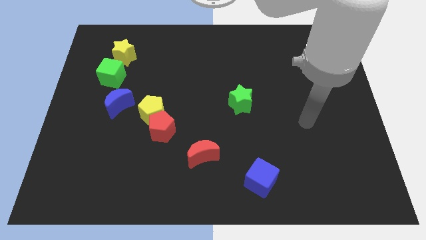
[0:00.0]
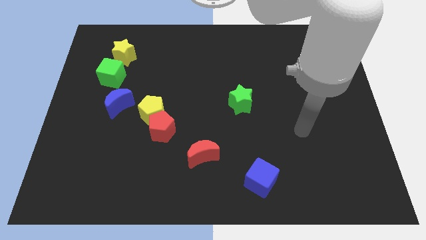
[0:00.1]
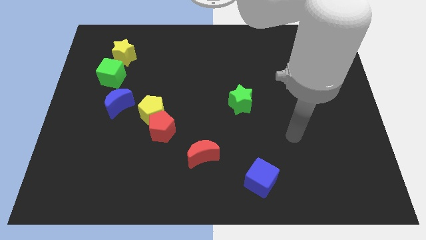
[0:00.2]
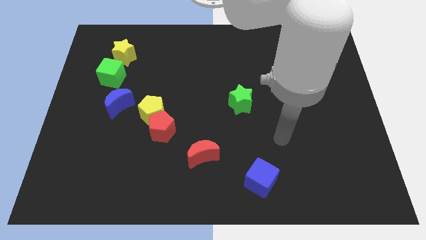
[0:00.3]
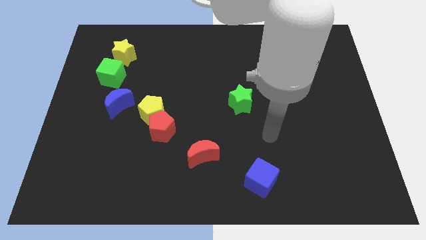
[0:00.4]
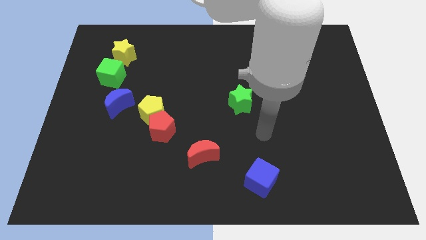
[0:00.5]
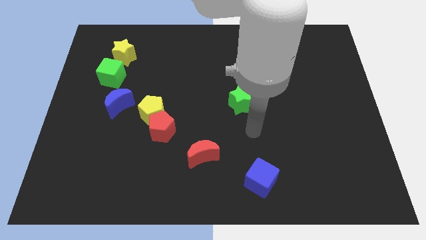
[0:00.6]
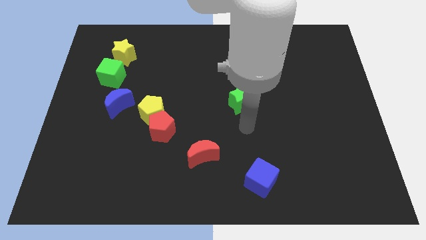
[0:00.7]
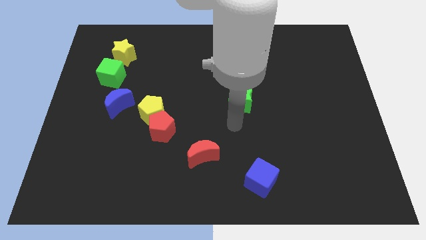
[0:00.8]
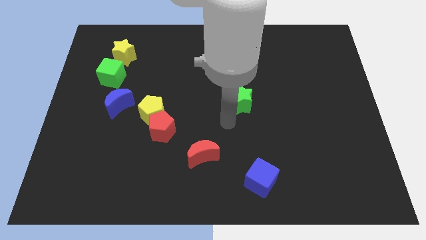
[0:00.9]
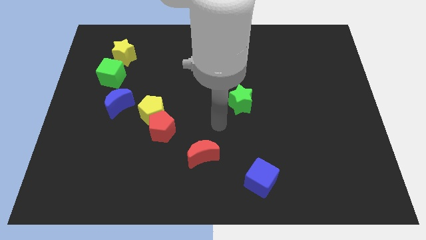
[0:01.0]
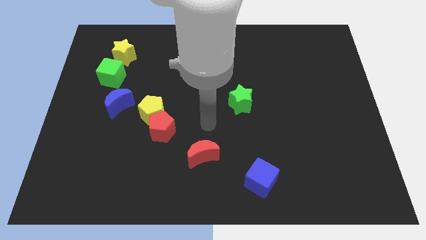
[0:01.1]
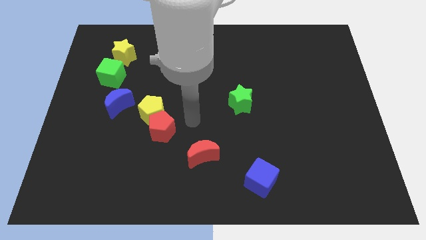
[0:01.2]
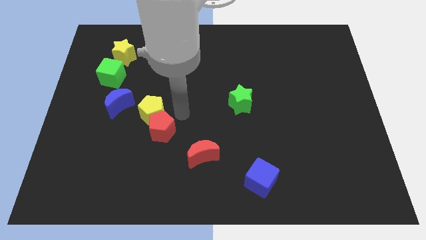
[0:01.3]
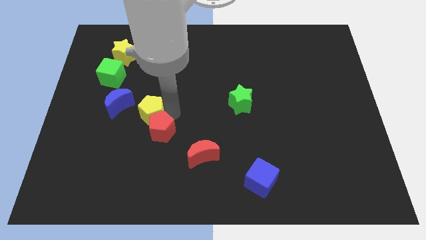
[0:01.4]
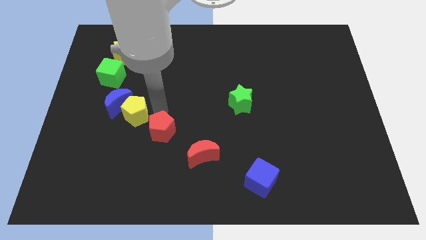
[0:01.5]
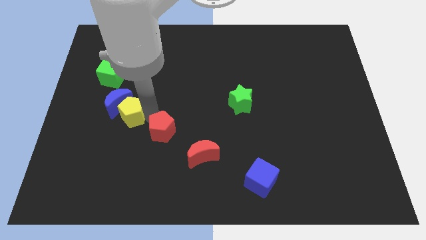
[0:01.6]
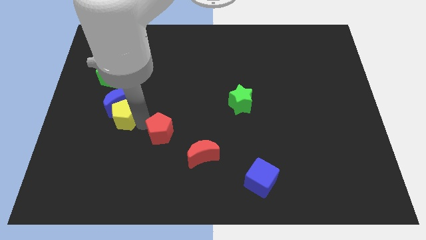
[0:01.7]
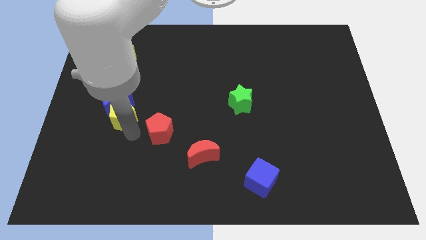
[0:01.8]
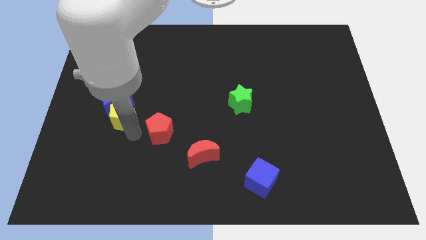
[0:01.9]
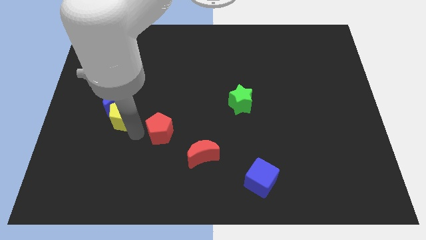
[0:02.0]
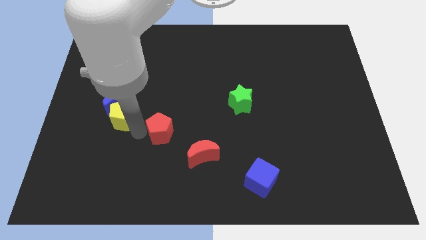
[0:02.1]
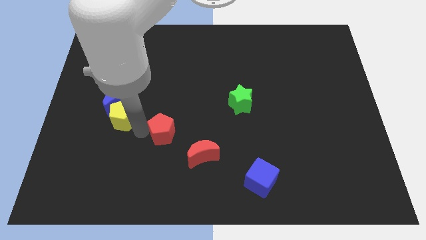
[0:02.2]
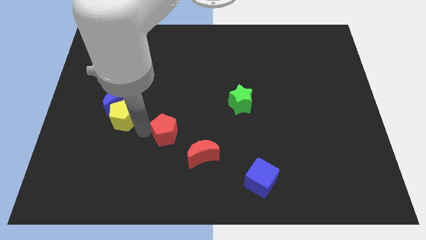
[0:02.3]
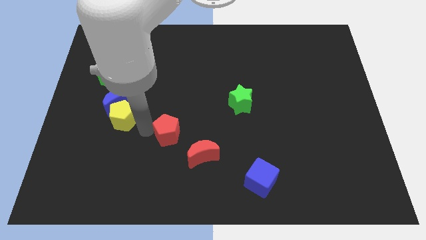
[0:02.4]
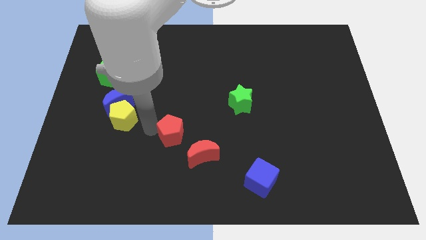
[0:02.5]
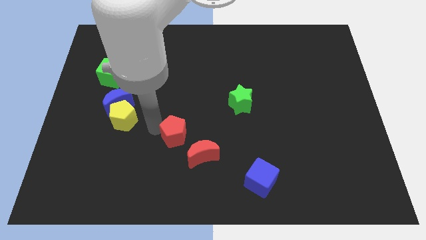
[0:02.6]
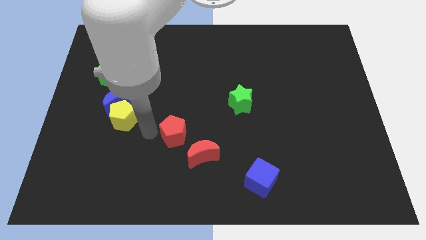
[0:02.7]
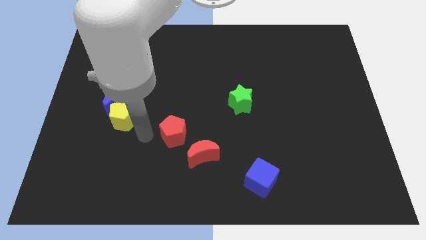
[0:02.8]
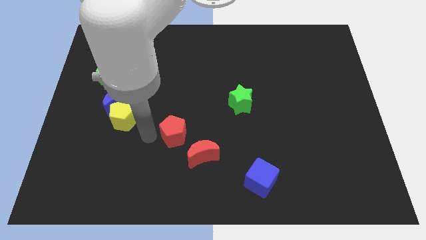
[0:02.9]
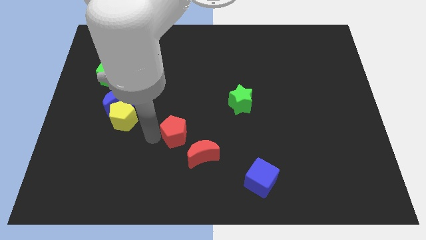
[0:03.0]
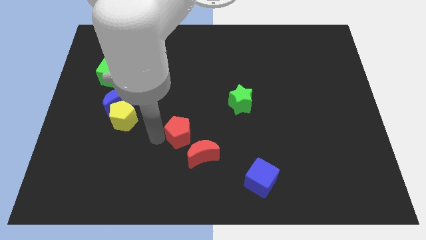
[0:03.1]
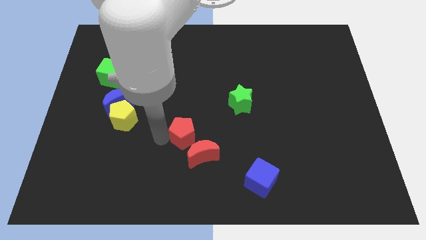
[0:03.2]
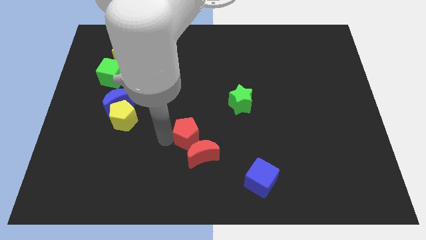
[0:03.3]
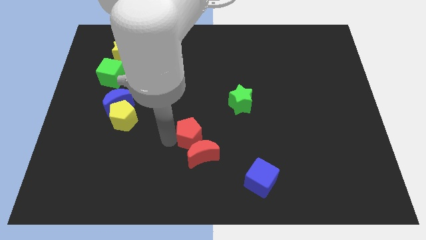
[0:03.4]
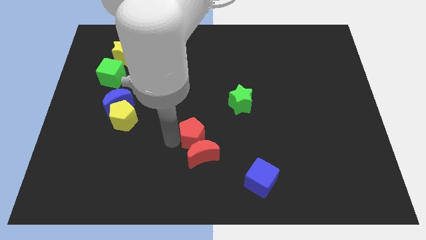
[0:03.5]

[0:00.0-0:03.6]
move the red pentagon right a little

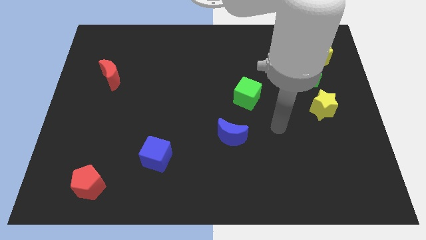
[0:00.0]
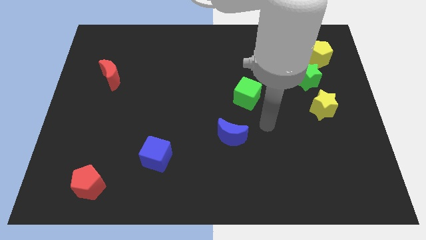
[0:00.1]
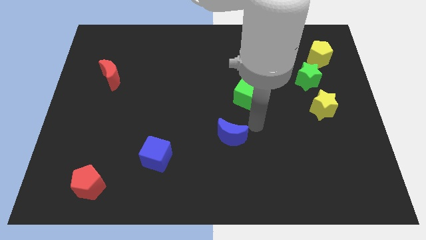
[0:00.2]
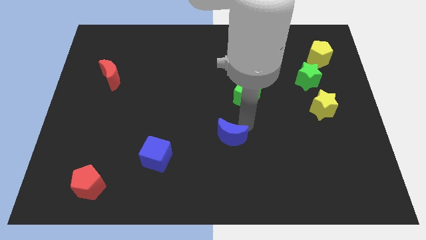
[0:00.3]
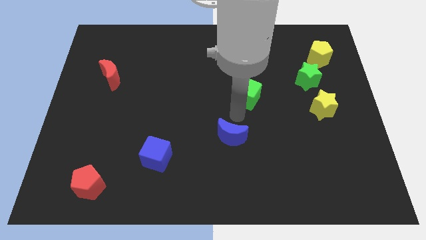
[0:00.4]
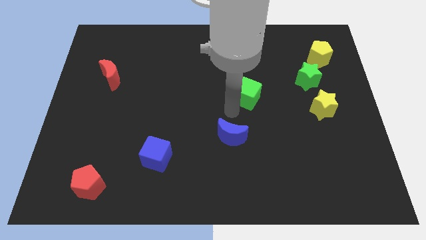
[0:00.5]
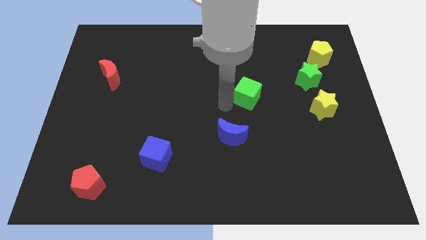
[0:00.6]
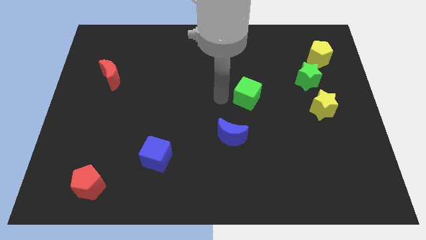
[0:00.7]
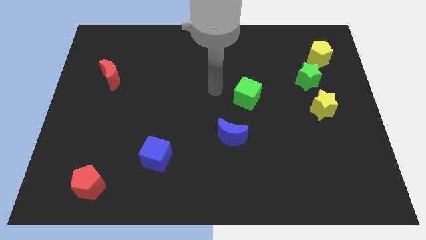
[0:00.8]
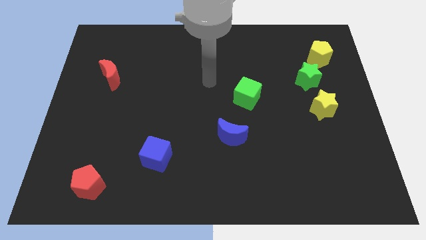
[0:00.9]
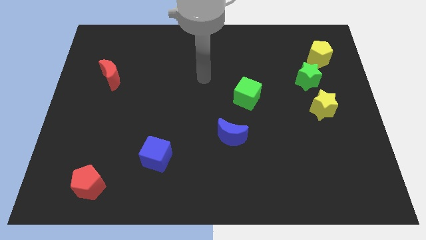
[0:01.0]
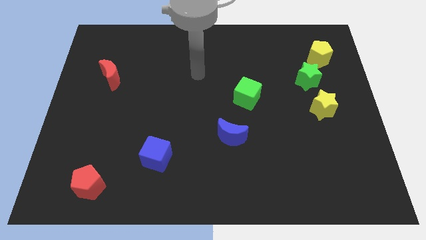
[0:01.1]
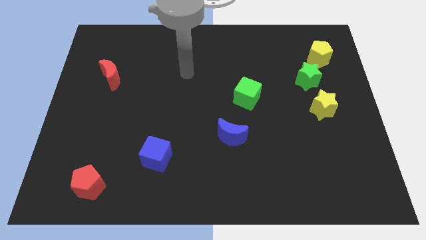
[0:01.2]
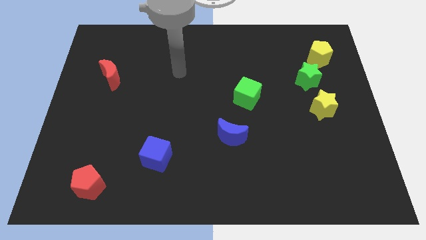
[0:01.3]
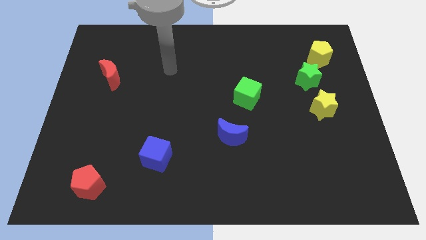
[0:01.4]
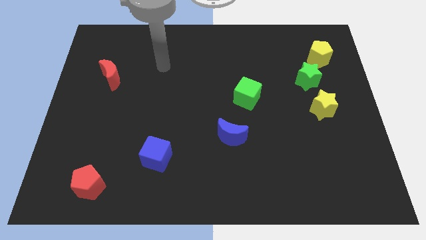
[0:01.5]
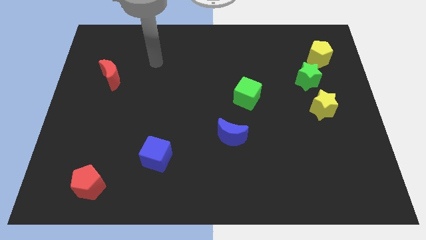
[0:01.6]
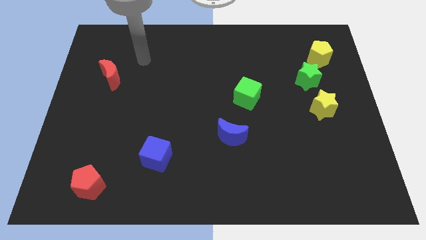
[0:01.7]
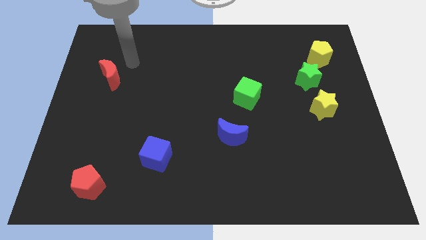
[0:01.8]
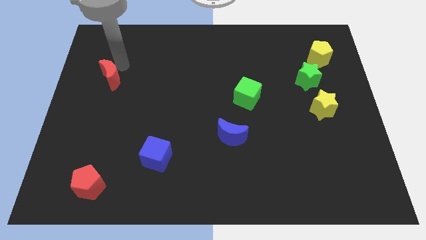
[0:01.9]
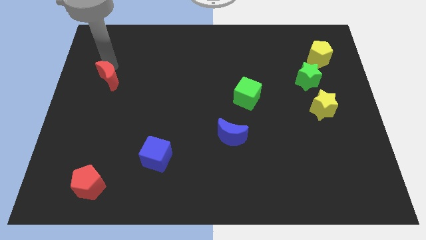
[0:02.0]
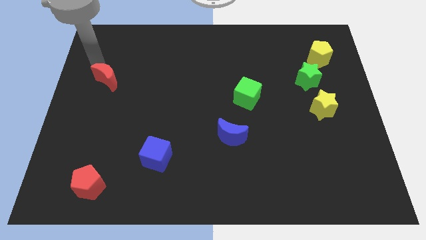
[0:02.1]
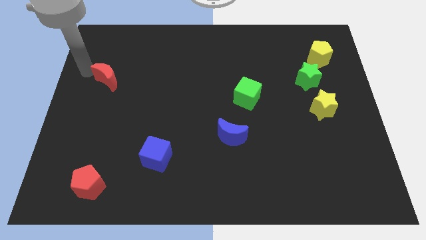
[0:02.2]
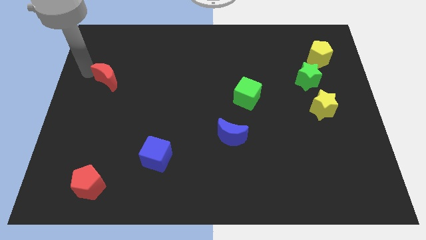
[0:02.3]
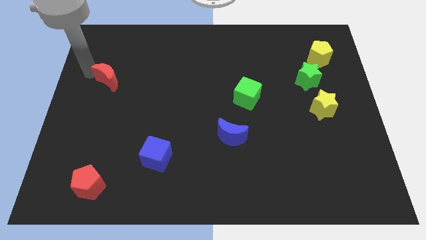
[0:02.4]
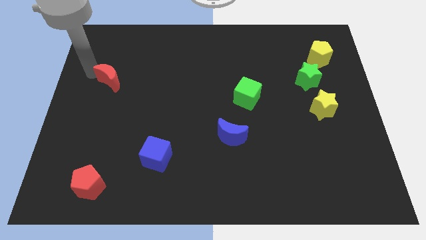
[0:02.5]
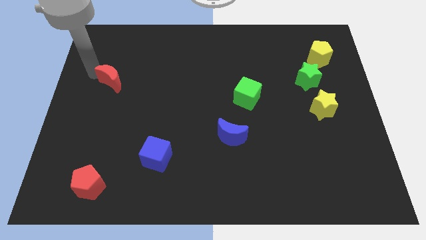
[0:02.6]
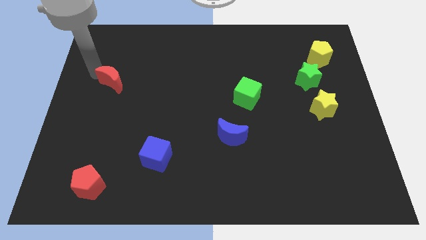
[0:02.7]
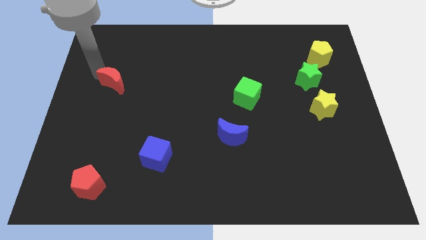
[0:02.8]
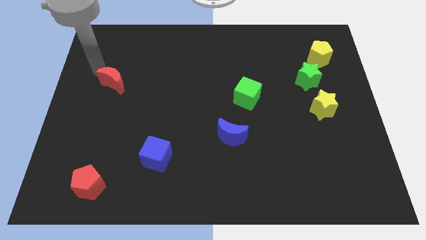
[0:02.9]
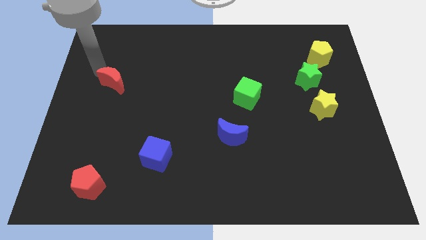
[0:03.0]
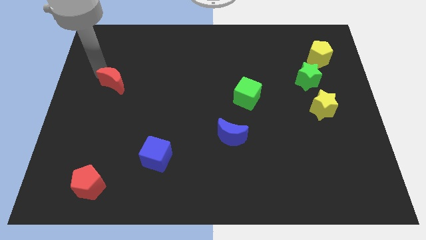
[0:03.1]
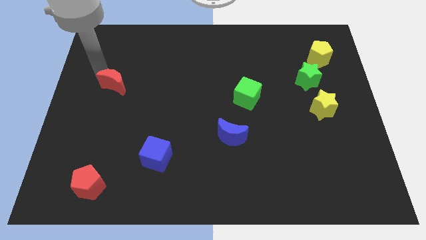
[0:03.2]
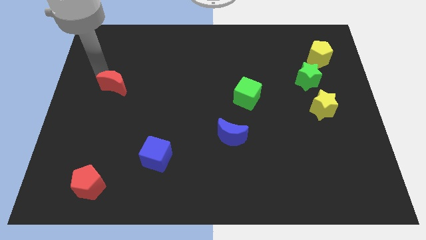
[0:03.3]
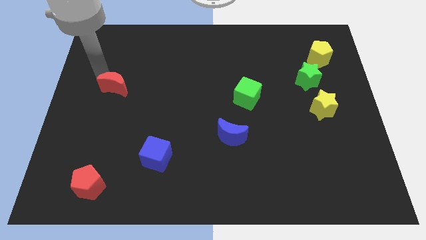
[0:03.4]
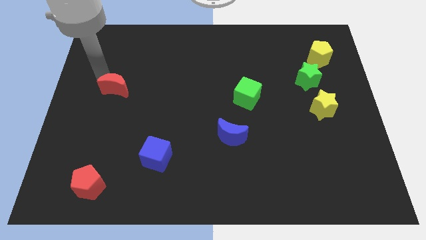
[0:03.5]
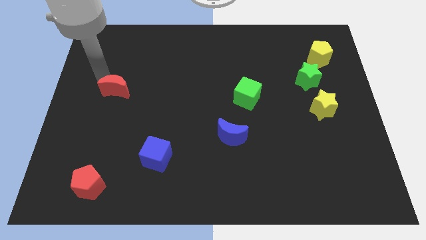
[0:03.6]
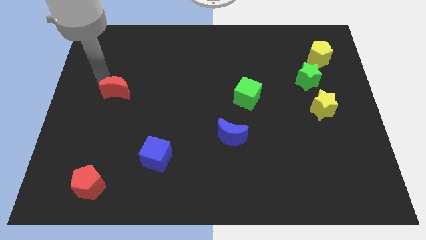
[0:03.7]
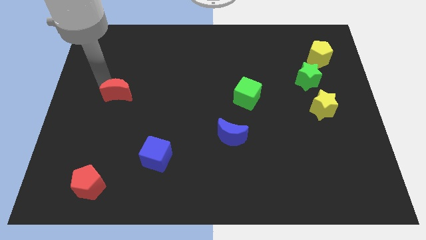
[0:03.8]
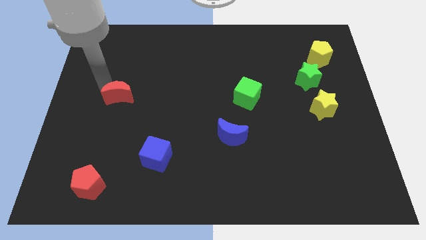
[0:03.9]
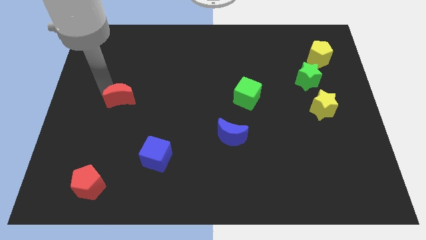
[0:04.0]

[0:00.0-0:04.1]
push the red moon diagonally downwards and to the right a bit

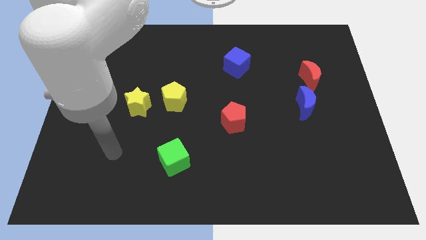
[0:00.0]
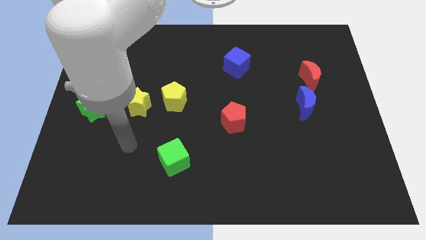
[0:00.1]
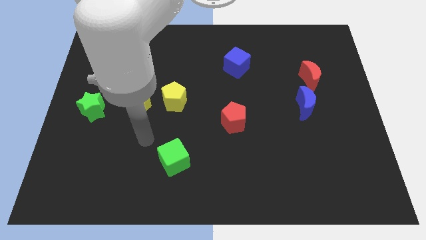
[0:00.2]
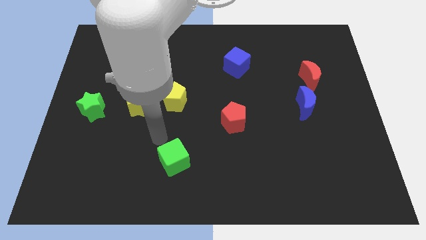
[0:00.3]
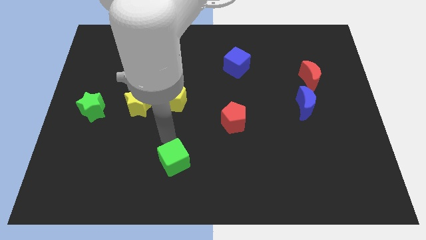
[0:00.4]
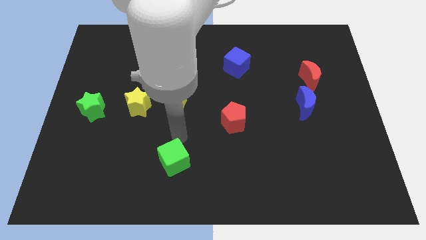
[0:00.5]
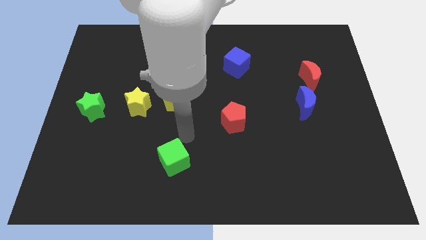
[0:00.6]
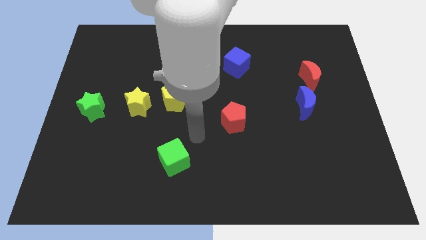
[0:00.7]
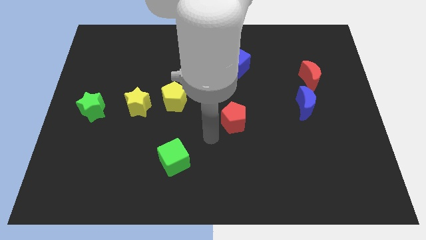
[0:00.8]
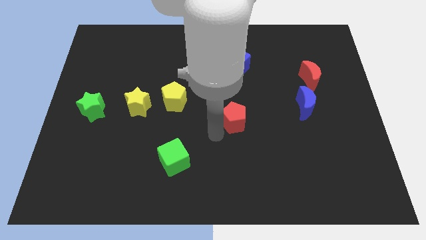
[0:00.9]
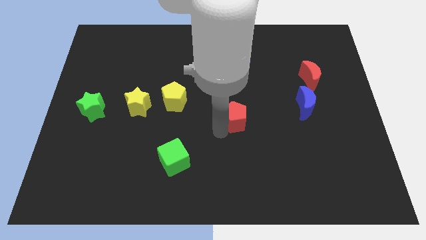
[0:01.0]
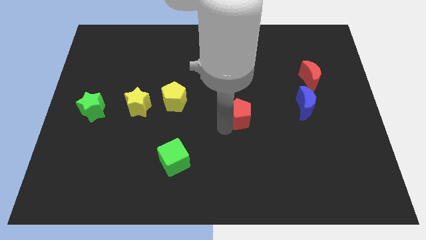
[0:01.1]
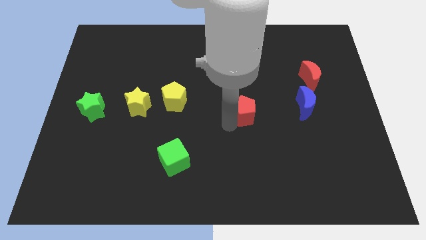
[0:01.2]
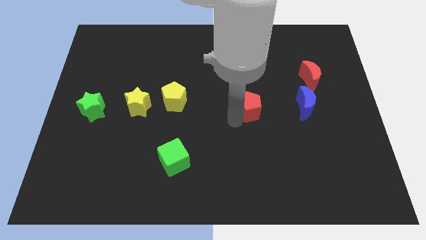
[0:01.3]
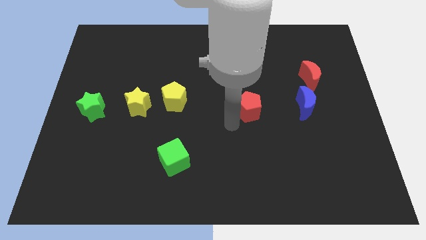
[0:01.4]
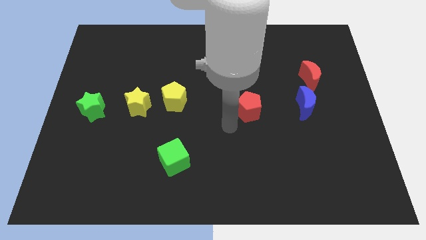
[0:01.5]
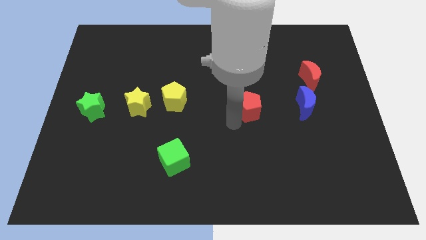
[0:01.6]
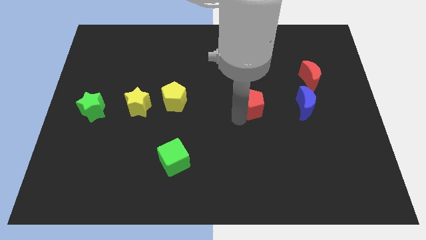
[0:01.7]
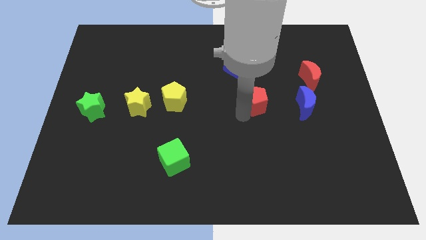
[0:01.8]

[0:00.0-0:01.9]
slightly slide the red pentagon up and to the right diagonally
